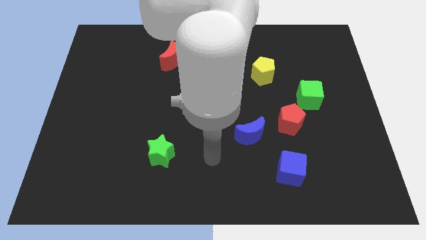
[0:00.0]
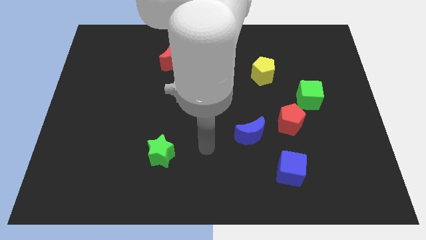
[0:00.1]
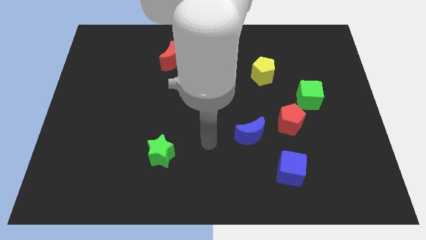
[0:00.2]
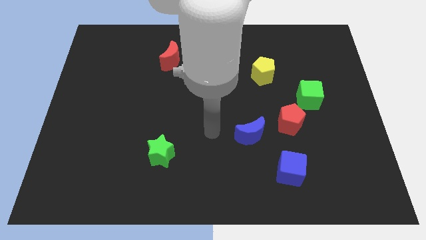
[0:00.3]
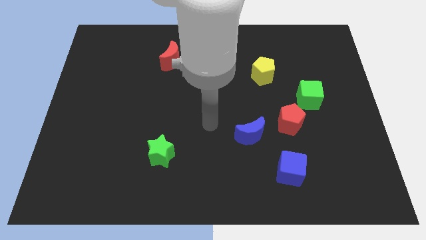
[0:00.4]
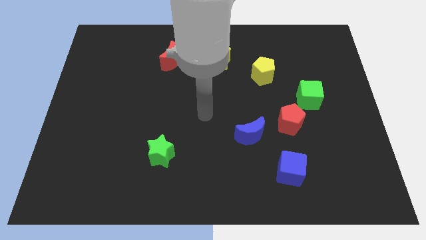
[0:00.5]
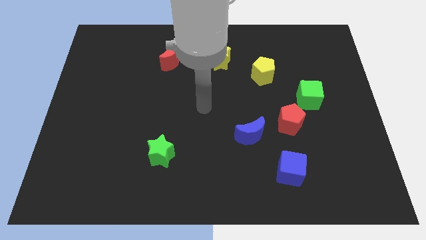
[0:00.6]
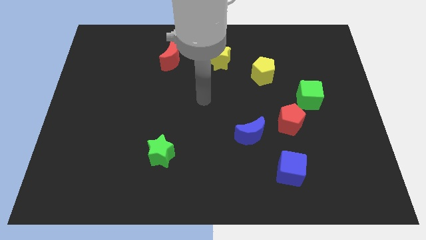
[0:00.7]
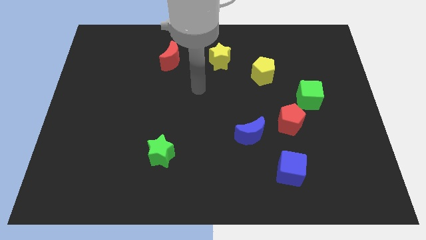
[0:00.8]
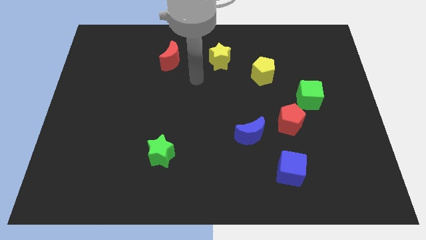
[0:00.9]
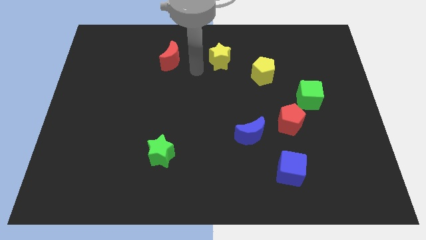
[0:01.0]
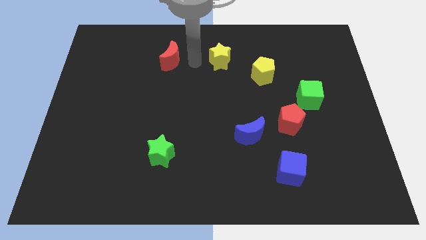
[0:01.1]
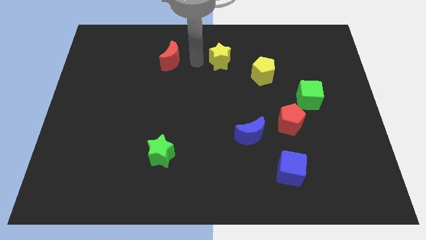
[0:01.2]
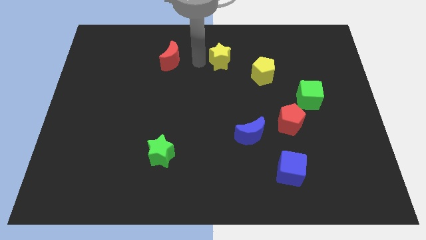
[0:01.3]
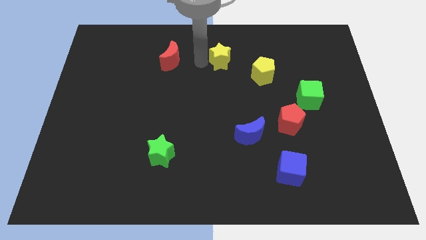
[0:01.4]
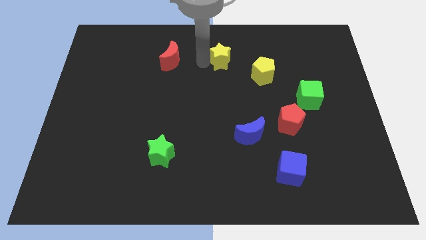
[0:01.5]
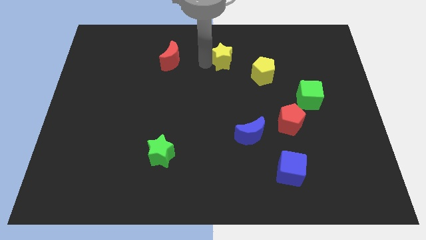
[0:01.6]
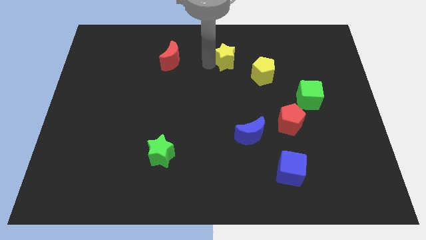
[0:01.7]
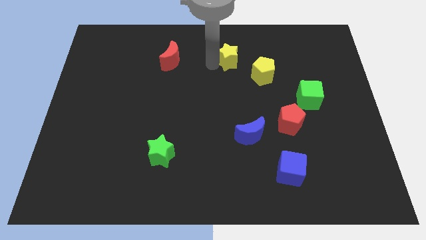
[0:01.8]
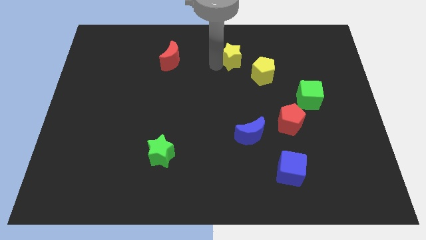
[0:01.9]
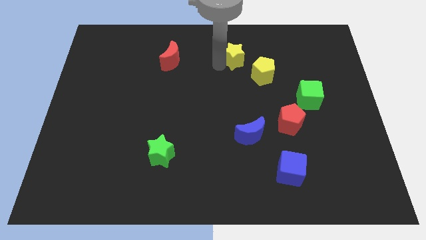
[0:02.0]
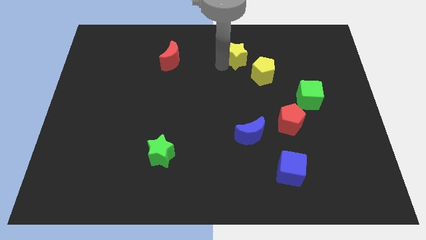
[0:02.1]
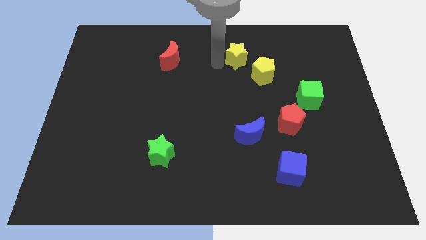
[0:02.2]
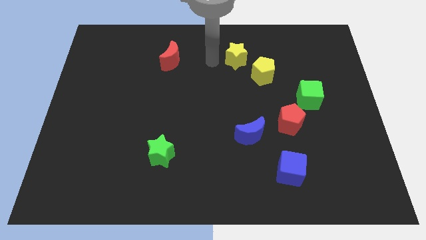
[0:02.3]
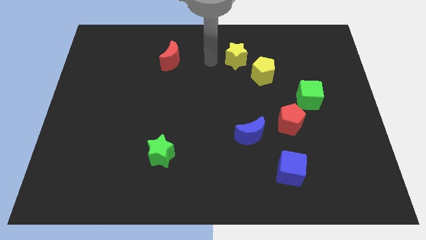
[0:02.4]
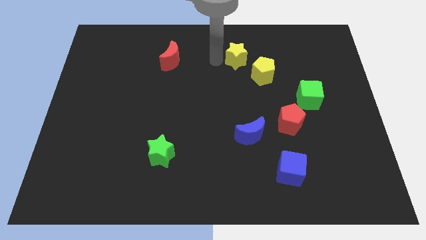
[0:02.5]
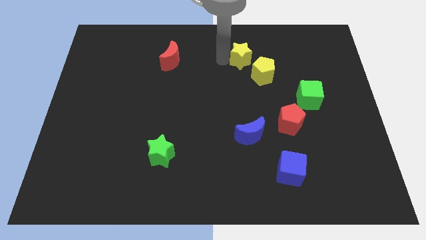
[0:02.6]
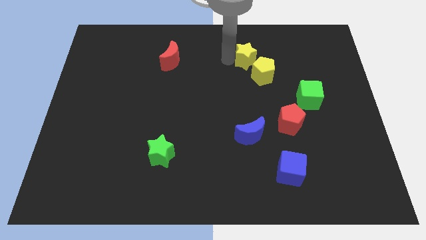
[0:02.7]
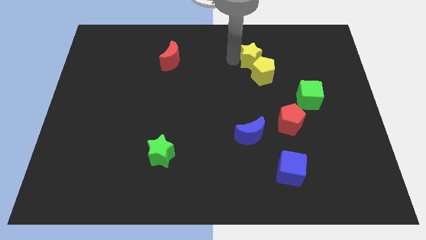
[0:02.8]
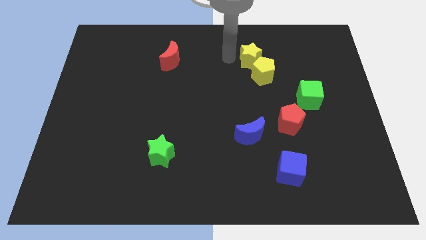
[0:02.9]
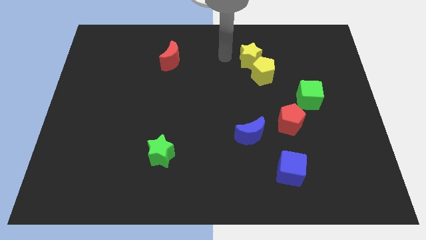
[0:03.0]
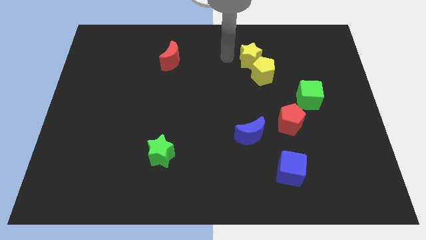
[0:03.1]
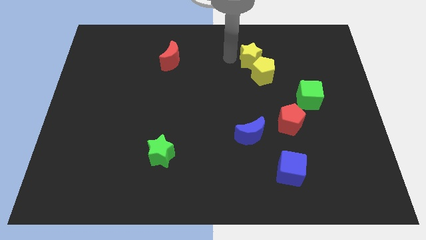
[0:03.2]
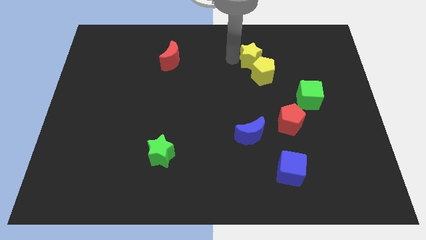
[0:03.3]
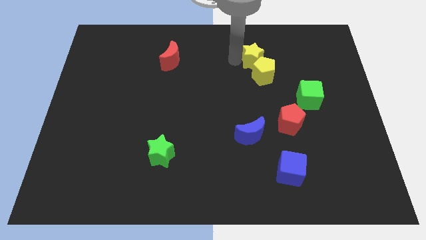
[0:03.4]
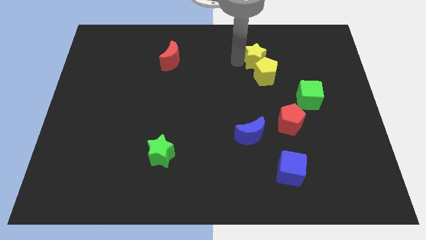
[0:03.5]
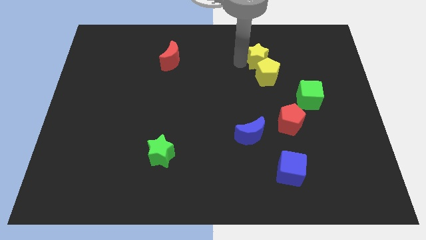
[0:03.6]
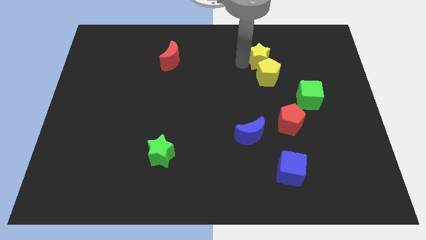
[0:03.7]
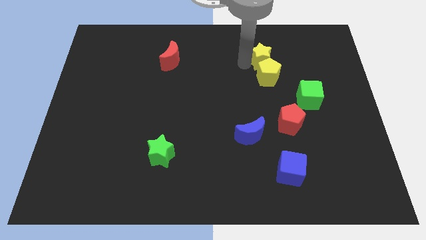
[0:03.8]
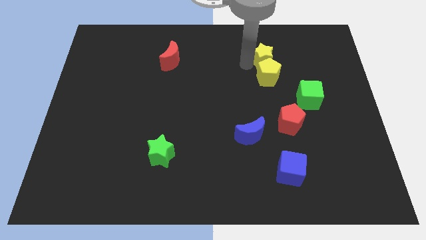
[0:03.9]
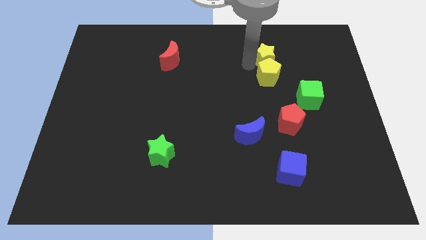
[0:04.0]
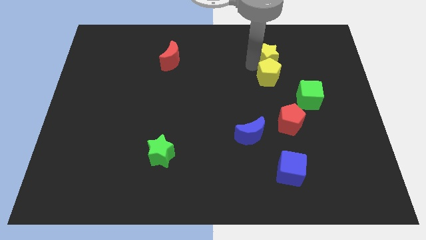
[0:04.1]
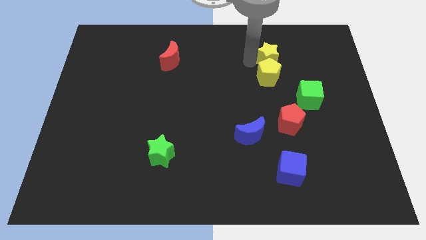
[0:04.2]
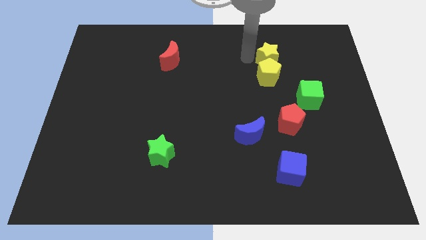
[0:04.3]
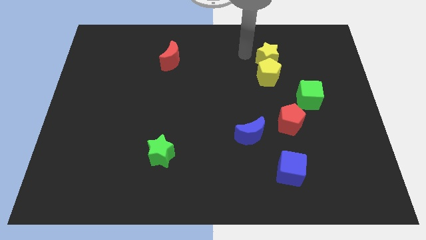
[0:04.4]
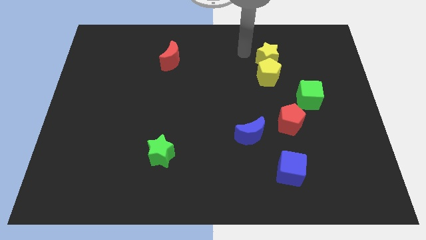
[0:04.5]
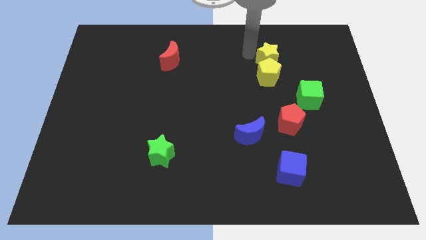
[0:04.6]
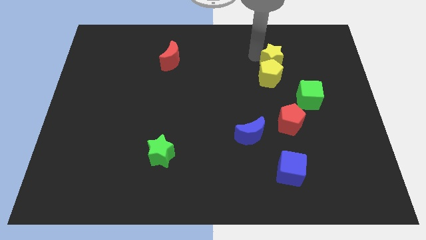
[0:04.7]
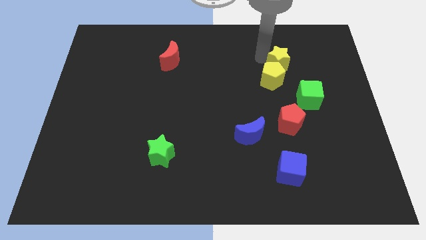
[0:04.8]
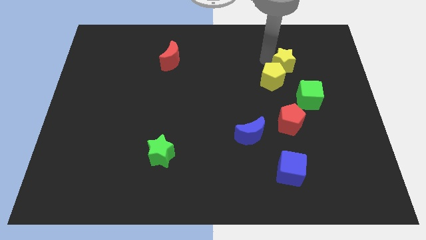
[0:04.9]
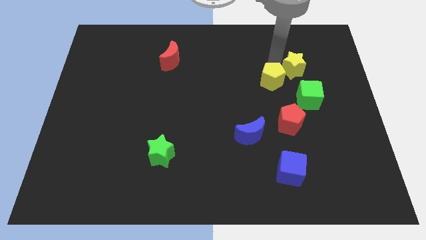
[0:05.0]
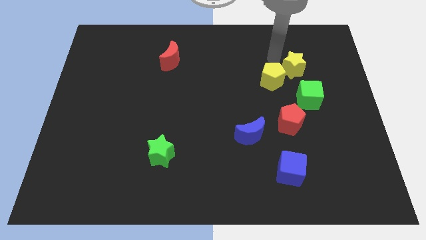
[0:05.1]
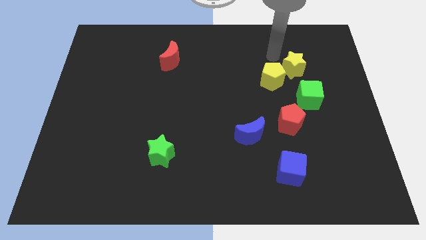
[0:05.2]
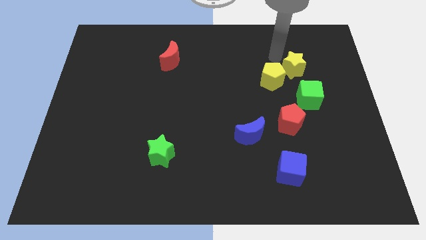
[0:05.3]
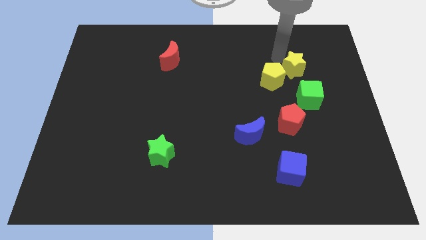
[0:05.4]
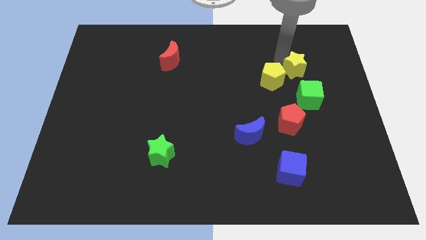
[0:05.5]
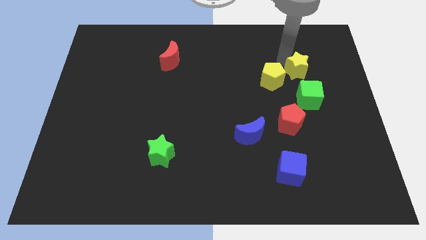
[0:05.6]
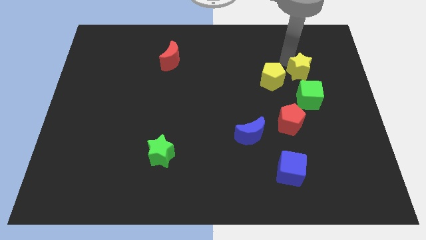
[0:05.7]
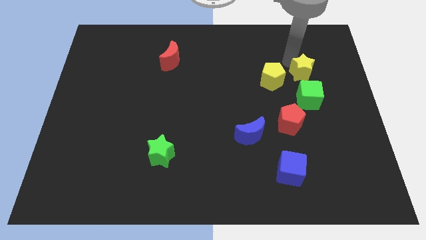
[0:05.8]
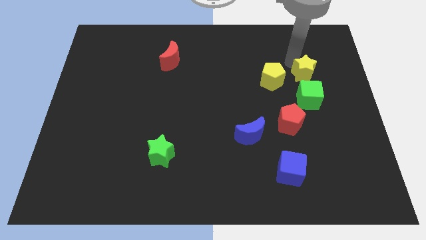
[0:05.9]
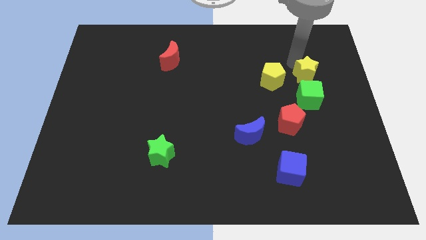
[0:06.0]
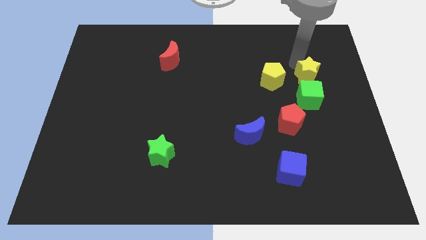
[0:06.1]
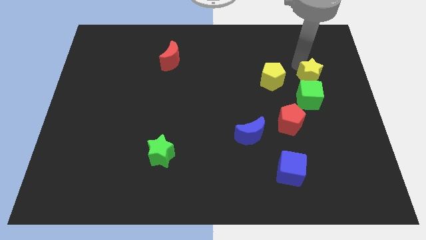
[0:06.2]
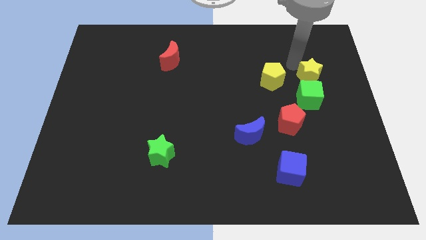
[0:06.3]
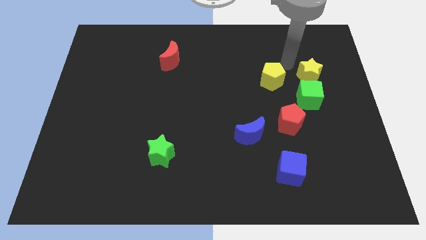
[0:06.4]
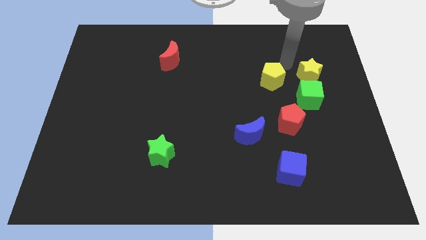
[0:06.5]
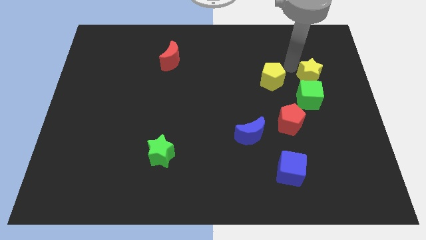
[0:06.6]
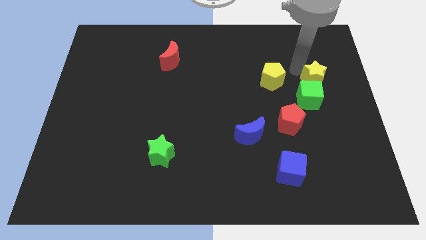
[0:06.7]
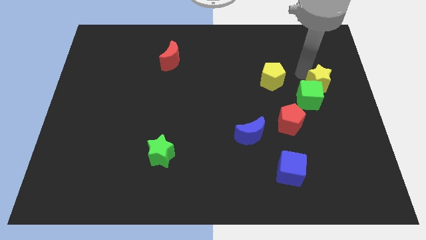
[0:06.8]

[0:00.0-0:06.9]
move the yellow star to the center right
